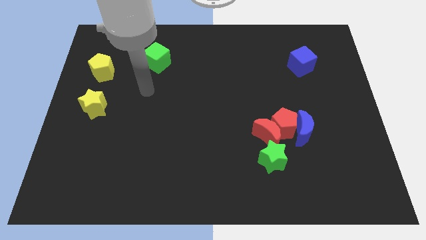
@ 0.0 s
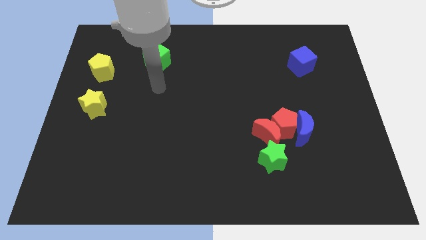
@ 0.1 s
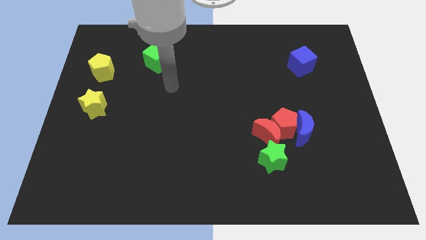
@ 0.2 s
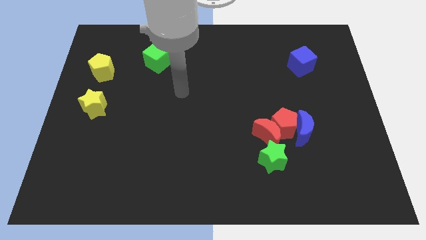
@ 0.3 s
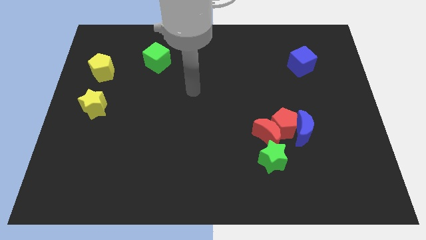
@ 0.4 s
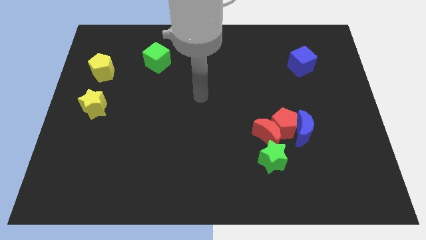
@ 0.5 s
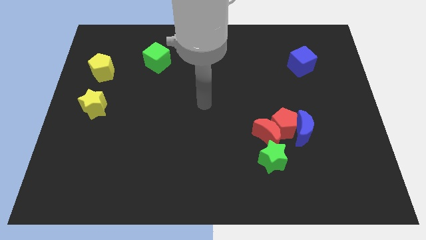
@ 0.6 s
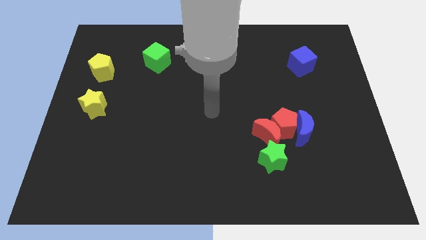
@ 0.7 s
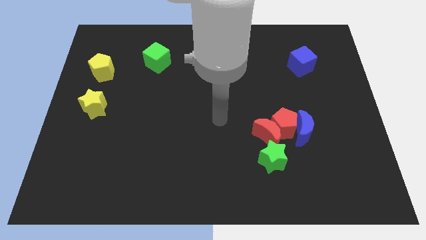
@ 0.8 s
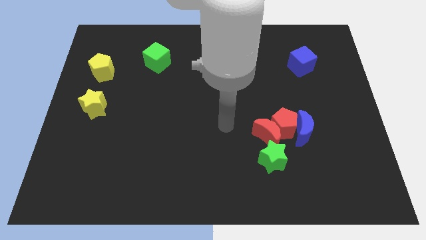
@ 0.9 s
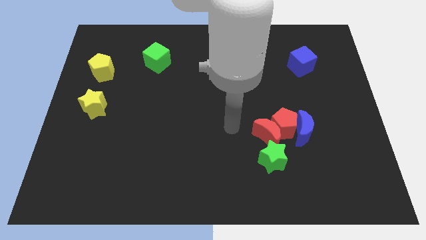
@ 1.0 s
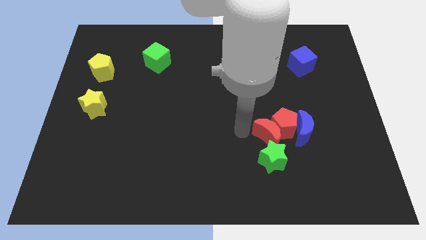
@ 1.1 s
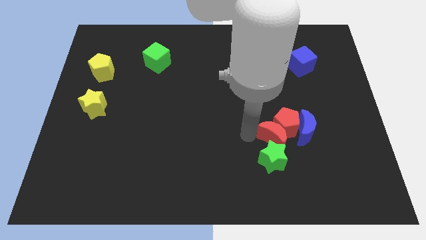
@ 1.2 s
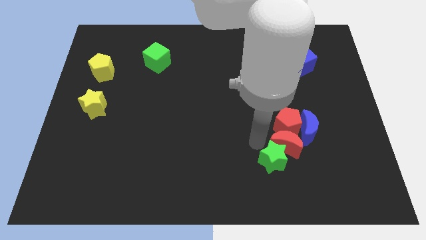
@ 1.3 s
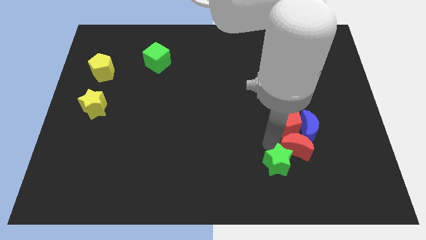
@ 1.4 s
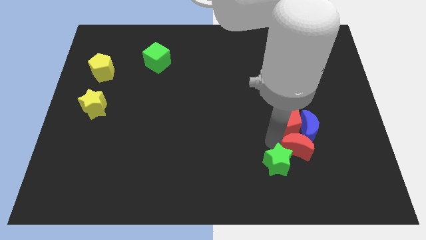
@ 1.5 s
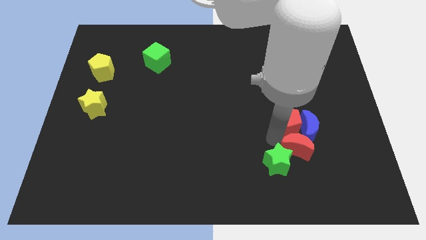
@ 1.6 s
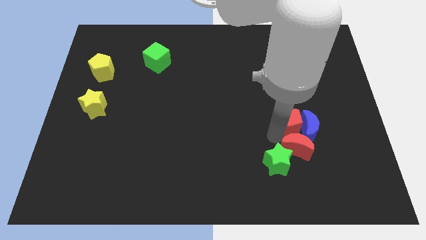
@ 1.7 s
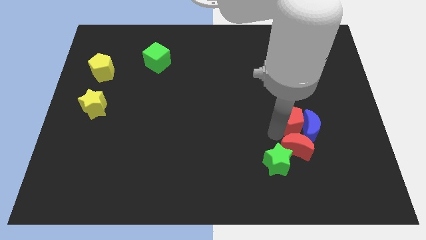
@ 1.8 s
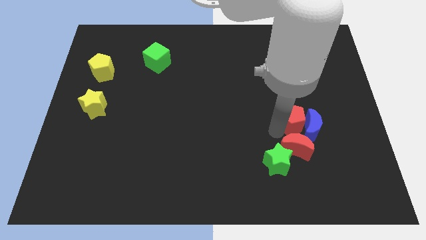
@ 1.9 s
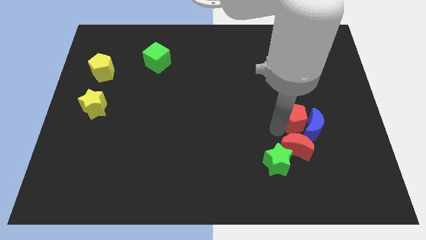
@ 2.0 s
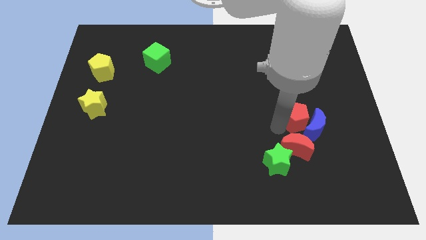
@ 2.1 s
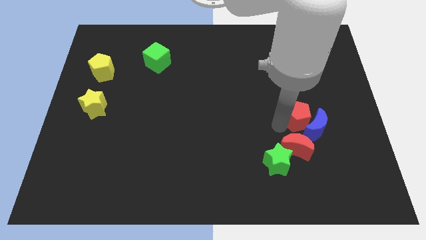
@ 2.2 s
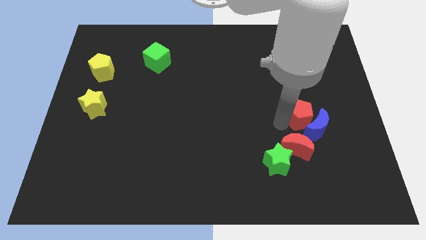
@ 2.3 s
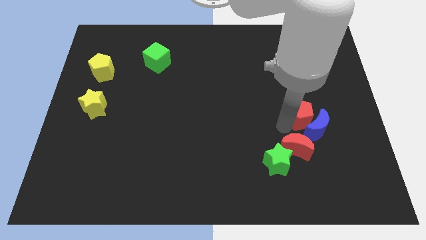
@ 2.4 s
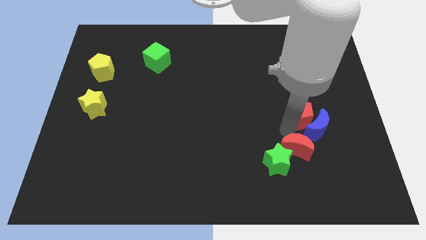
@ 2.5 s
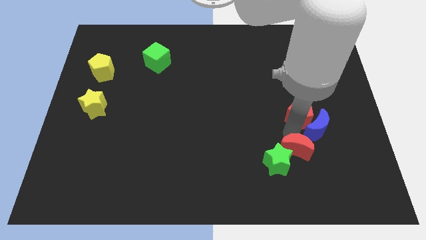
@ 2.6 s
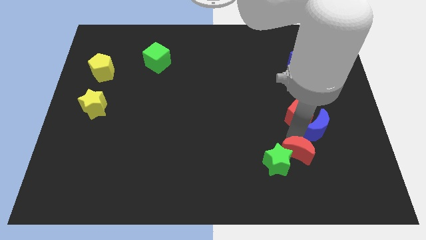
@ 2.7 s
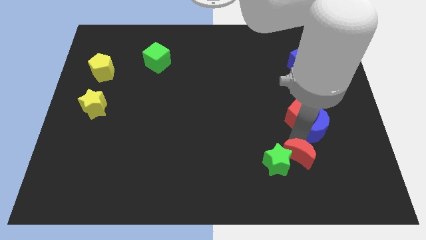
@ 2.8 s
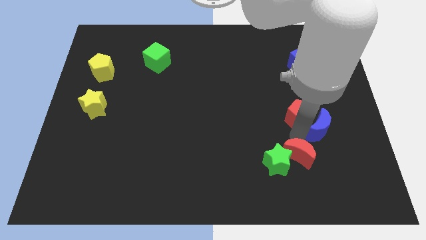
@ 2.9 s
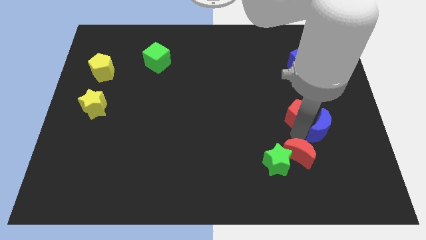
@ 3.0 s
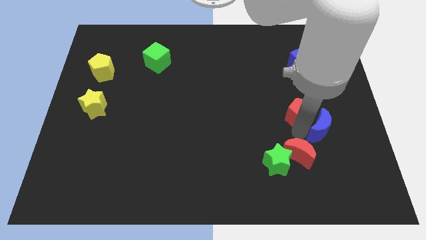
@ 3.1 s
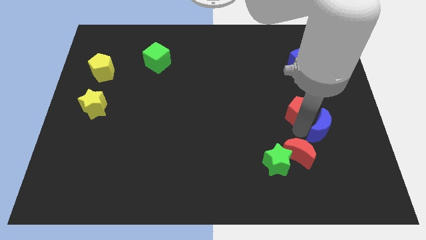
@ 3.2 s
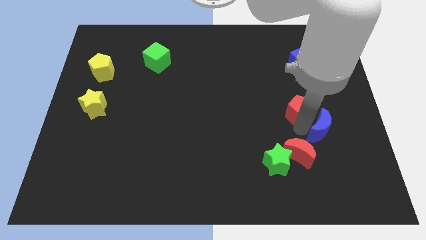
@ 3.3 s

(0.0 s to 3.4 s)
move the red pentagon away from the red moon, blue moon, and green star

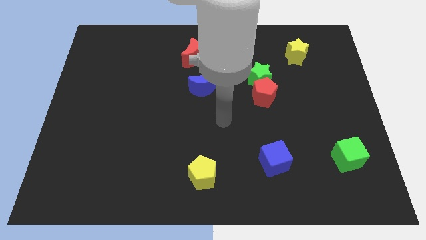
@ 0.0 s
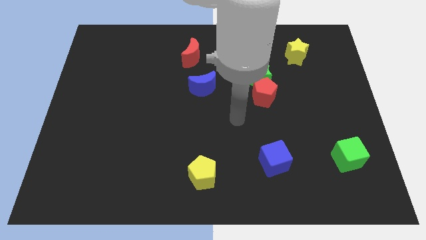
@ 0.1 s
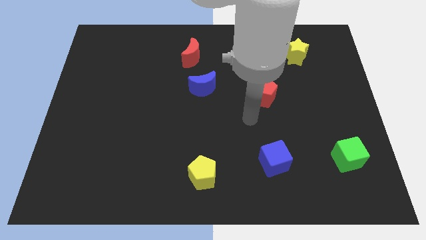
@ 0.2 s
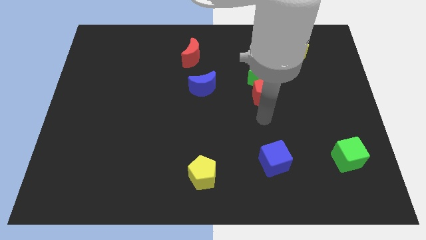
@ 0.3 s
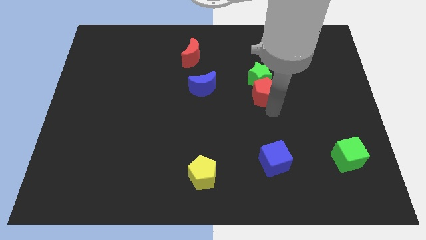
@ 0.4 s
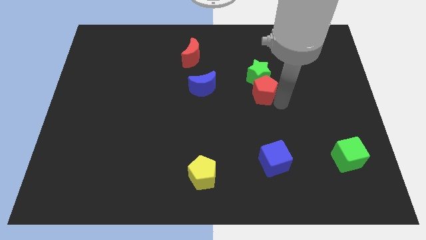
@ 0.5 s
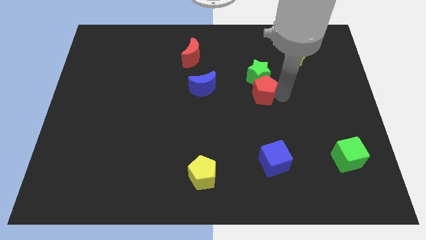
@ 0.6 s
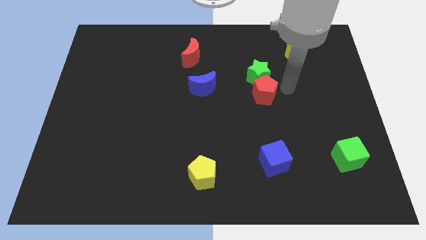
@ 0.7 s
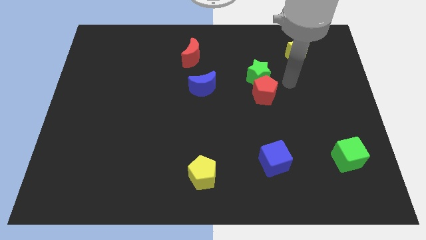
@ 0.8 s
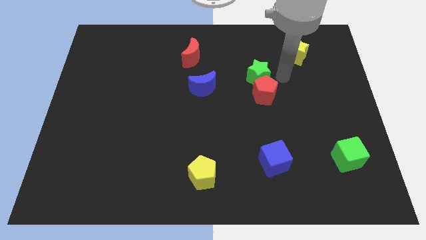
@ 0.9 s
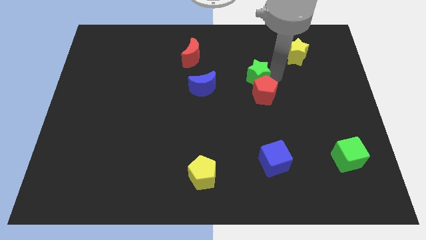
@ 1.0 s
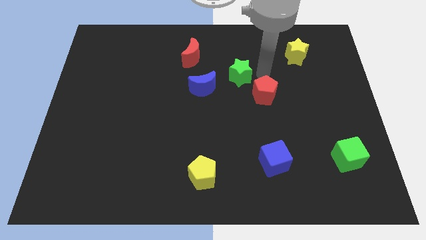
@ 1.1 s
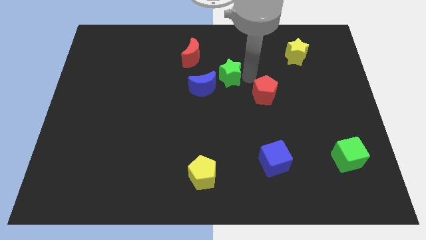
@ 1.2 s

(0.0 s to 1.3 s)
pull the red pentagon apart from the green star

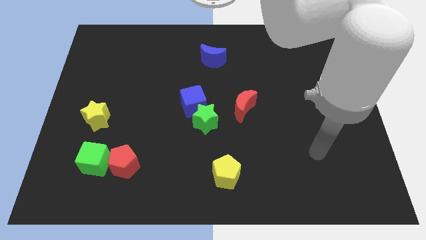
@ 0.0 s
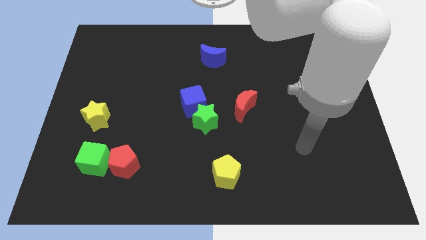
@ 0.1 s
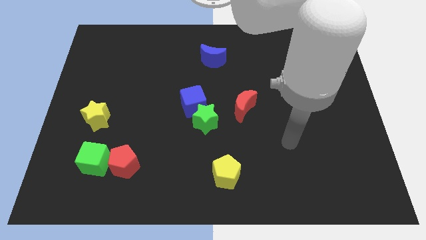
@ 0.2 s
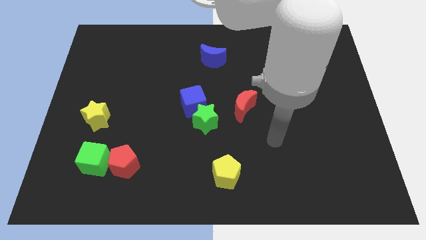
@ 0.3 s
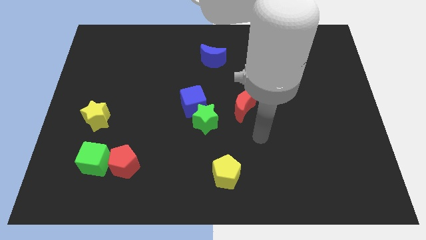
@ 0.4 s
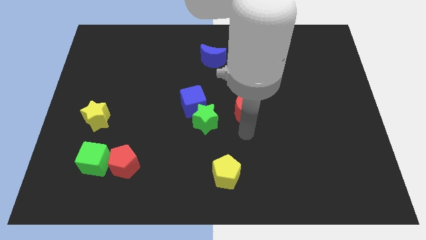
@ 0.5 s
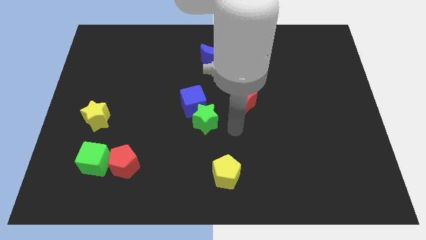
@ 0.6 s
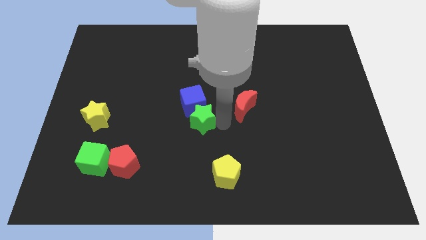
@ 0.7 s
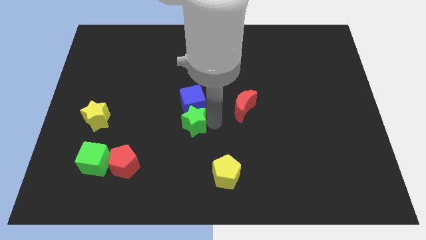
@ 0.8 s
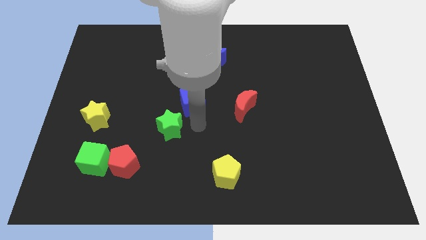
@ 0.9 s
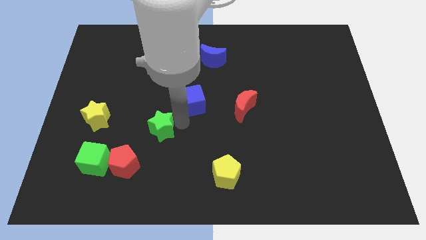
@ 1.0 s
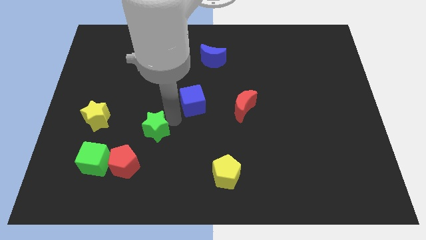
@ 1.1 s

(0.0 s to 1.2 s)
move the blue cube away from the green star

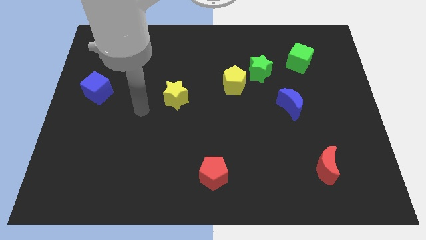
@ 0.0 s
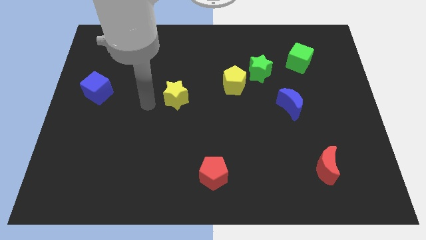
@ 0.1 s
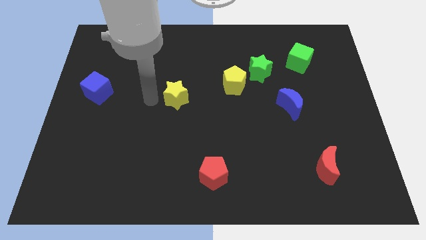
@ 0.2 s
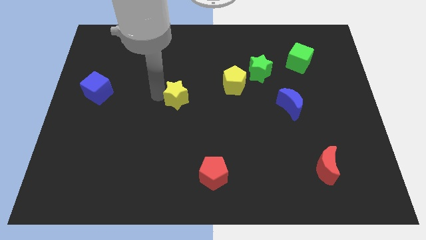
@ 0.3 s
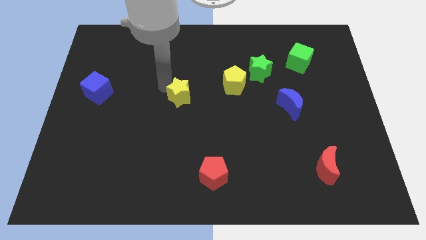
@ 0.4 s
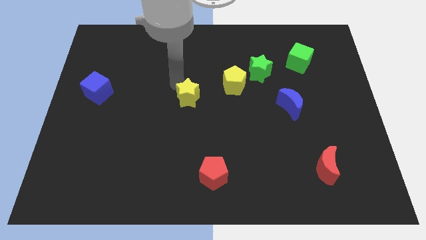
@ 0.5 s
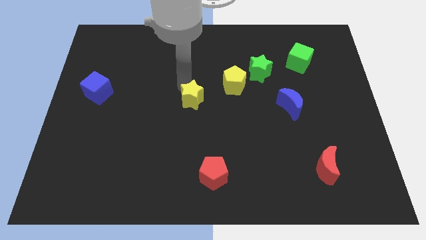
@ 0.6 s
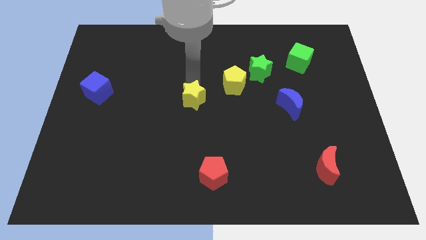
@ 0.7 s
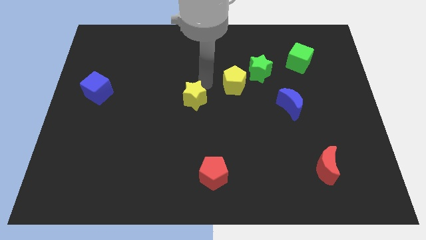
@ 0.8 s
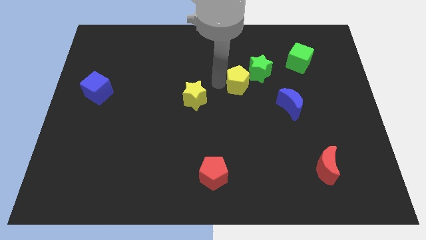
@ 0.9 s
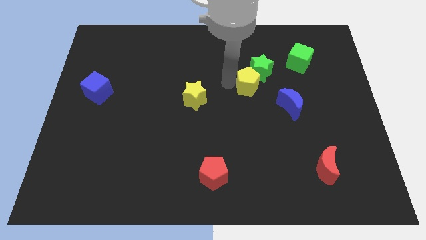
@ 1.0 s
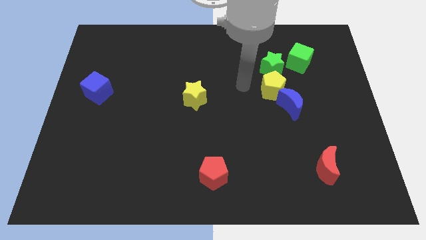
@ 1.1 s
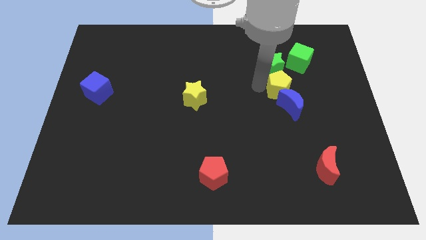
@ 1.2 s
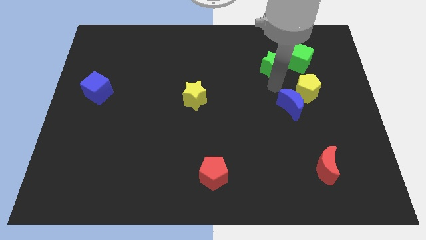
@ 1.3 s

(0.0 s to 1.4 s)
separate the green star from the yellow pentagon

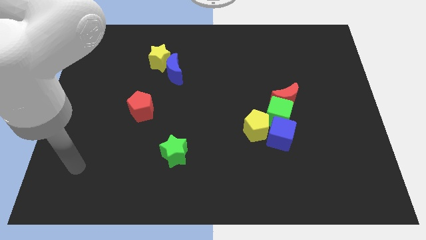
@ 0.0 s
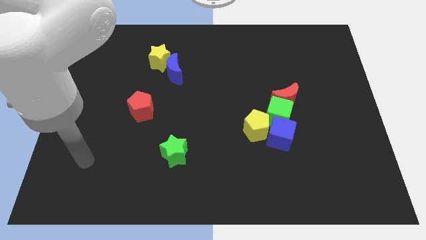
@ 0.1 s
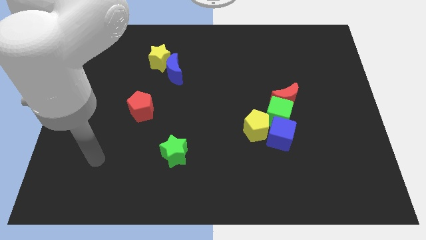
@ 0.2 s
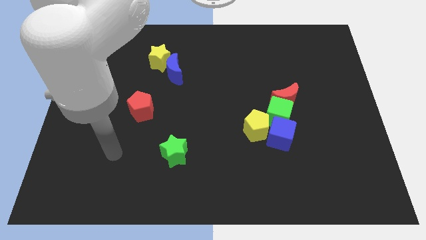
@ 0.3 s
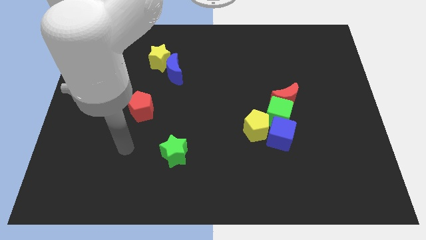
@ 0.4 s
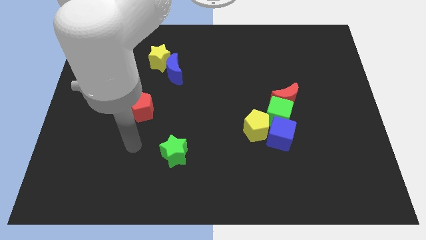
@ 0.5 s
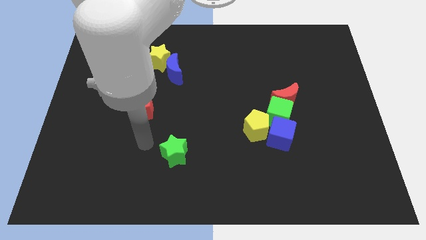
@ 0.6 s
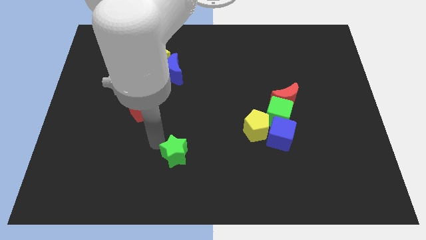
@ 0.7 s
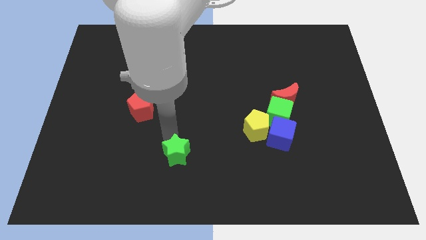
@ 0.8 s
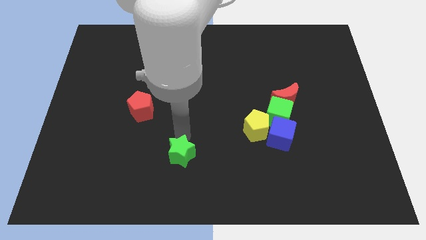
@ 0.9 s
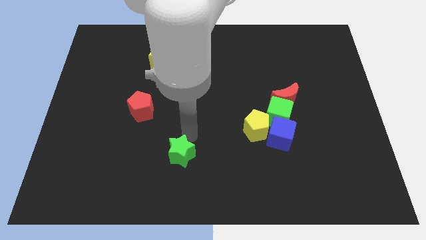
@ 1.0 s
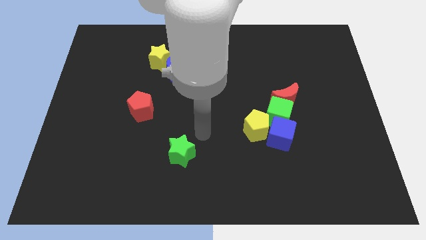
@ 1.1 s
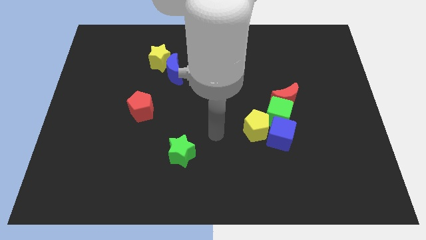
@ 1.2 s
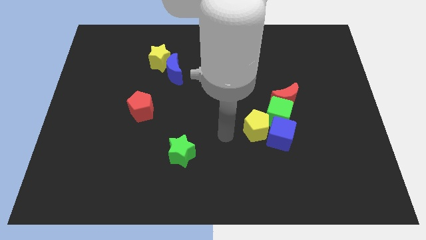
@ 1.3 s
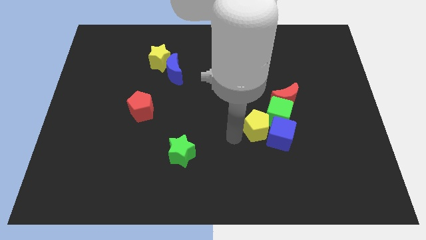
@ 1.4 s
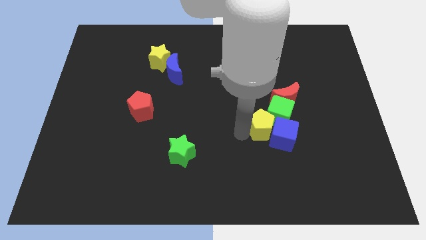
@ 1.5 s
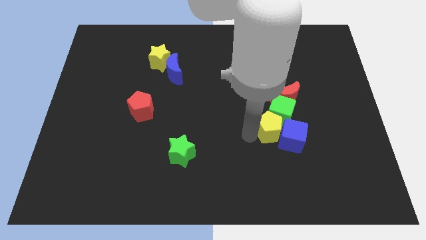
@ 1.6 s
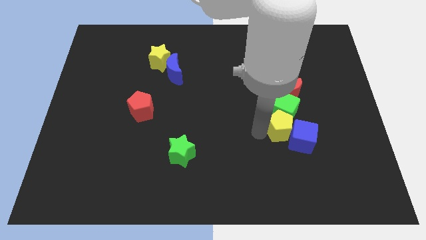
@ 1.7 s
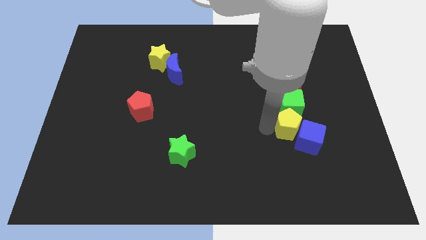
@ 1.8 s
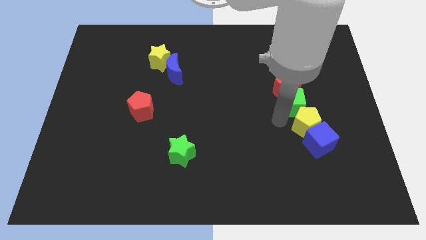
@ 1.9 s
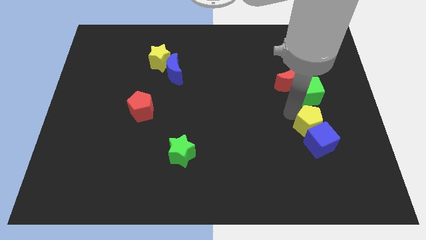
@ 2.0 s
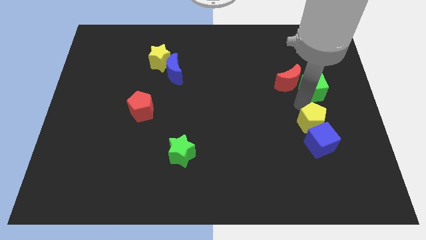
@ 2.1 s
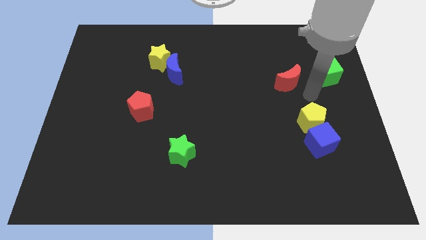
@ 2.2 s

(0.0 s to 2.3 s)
separate the red moon from the green cube
